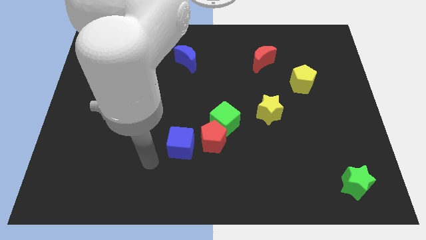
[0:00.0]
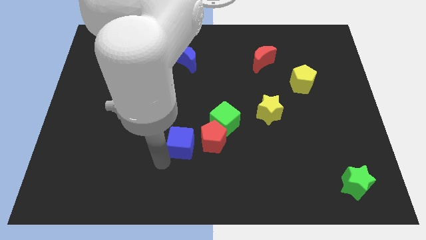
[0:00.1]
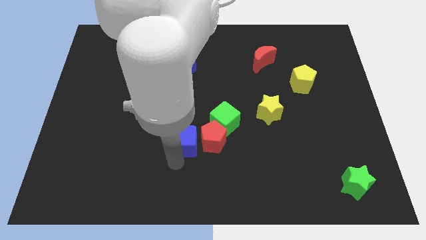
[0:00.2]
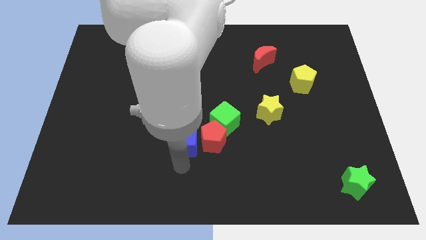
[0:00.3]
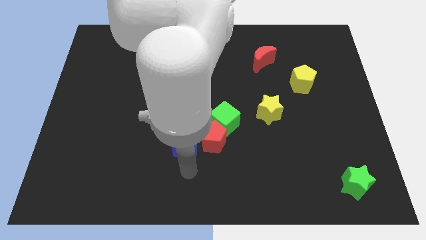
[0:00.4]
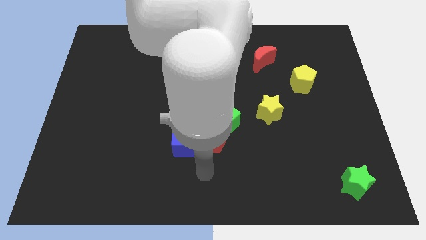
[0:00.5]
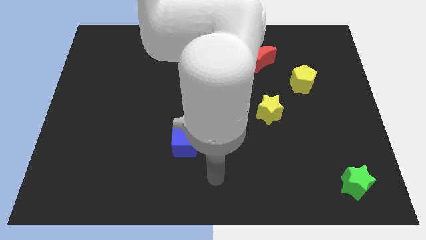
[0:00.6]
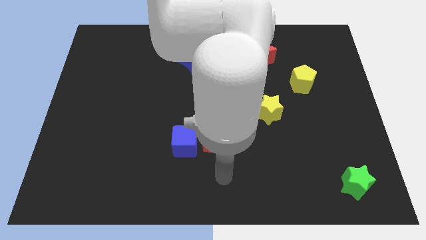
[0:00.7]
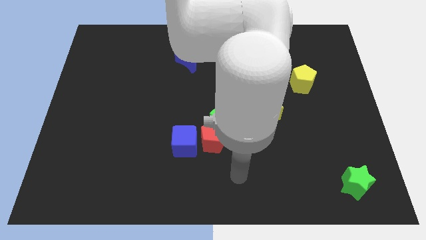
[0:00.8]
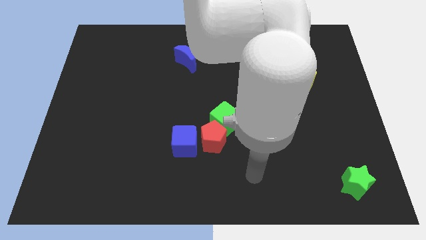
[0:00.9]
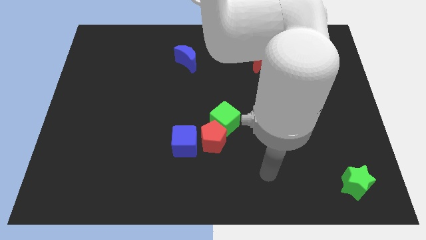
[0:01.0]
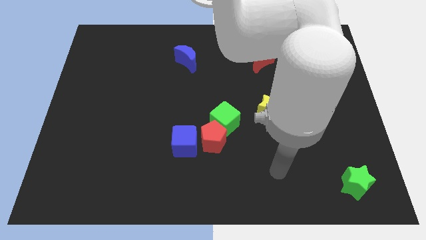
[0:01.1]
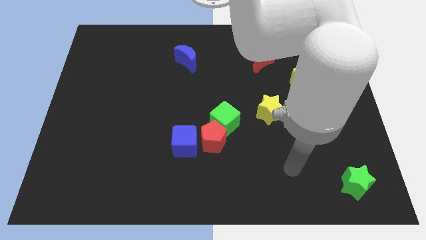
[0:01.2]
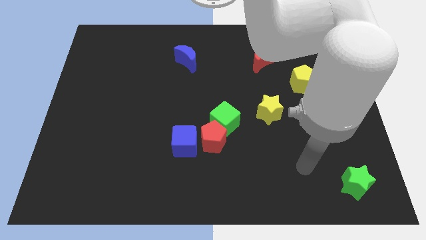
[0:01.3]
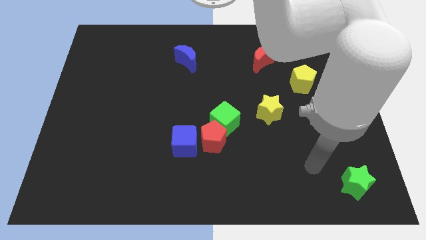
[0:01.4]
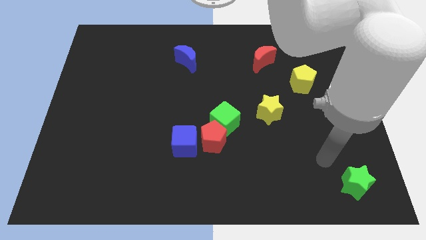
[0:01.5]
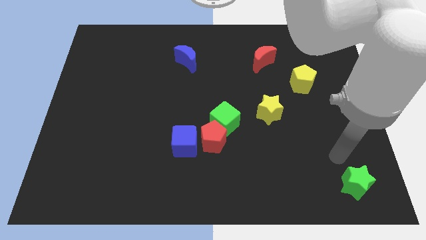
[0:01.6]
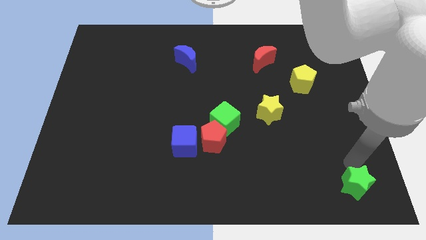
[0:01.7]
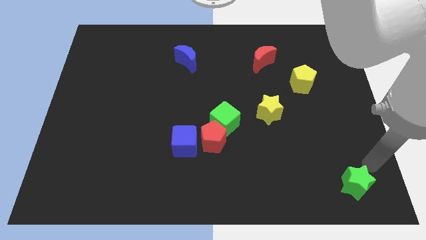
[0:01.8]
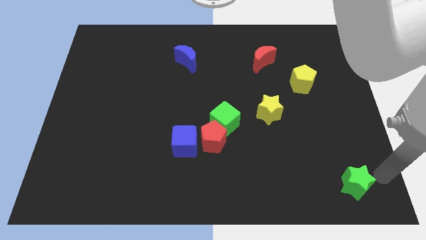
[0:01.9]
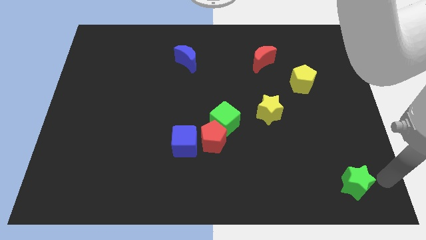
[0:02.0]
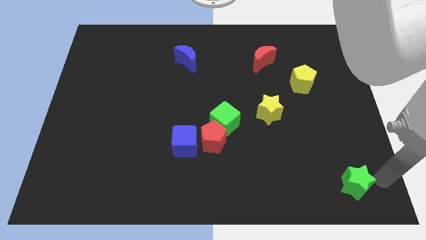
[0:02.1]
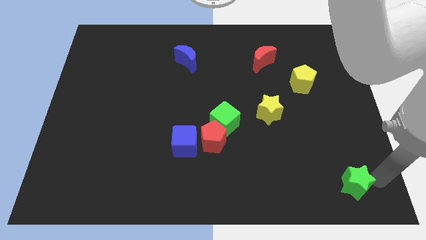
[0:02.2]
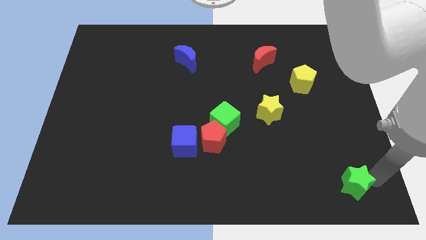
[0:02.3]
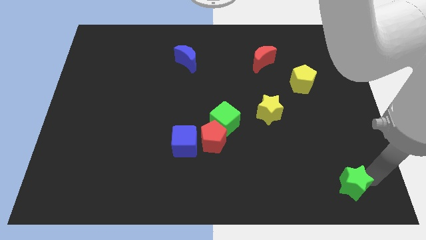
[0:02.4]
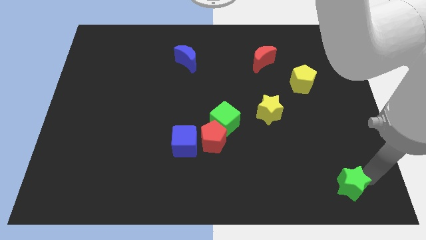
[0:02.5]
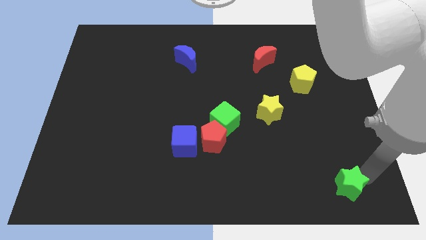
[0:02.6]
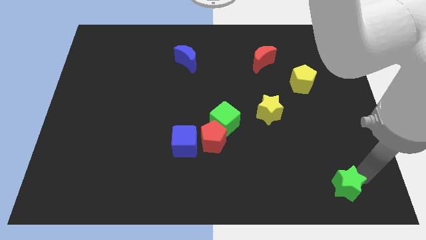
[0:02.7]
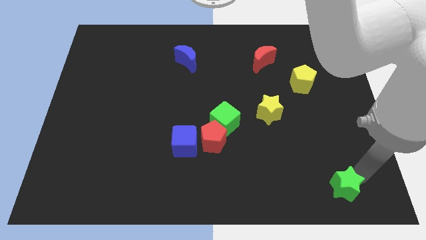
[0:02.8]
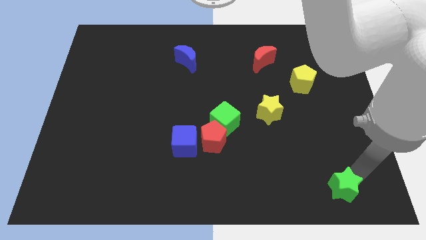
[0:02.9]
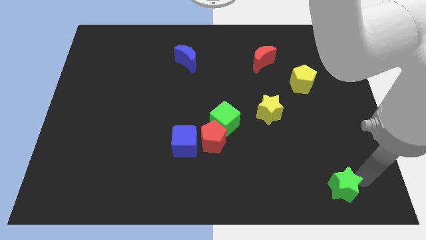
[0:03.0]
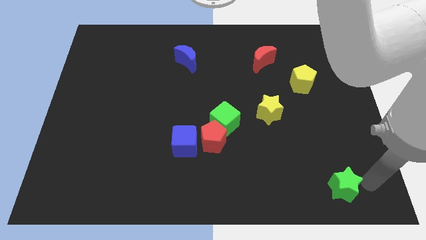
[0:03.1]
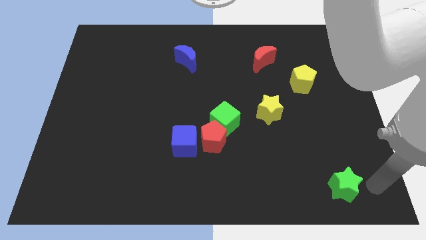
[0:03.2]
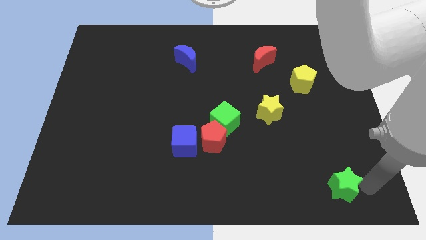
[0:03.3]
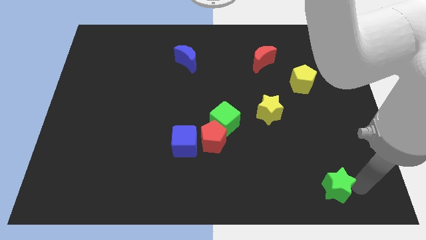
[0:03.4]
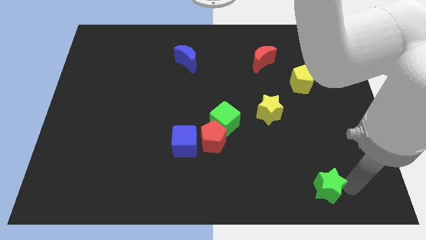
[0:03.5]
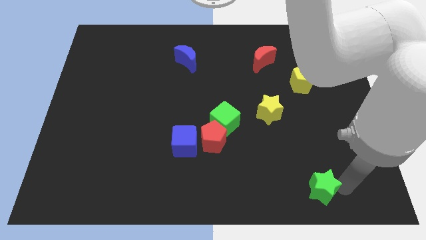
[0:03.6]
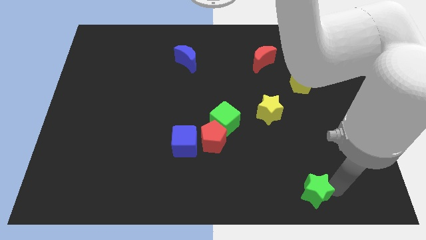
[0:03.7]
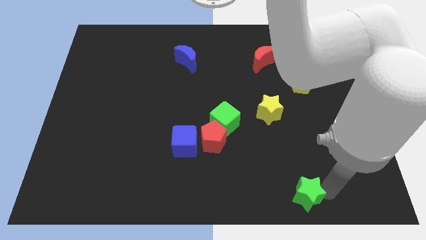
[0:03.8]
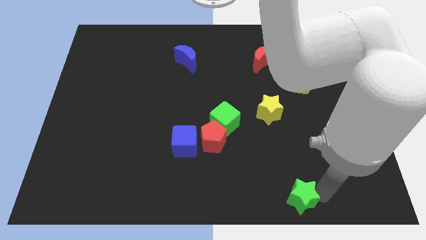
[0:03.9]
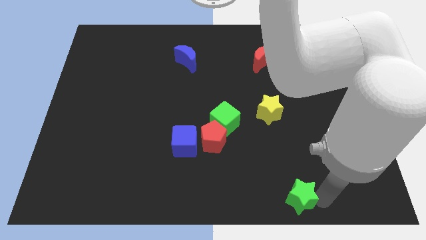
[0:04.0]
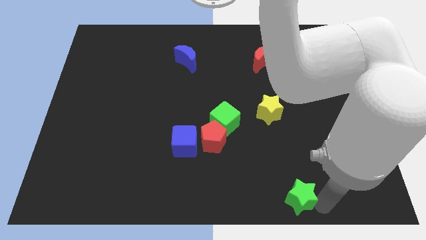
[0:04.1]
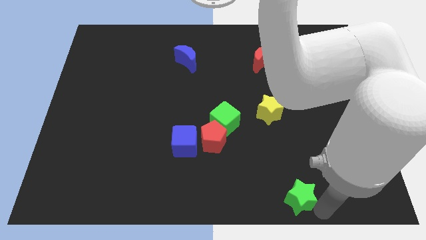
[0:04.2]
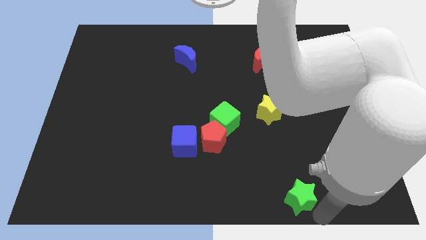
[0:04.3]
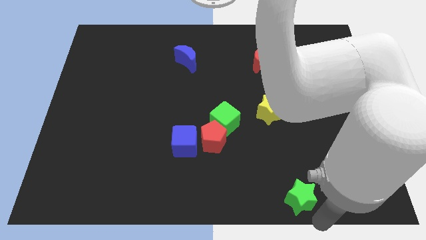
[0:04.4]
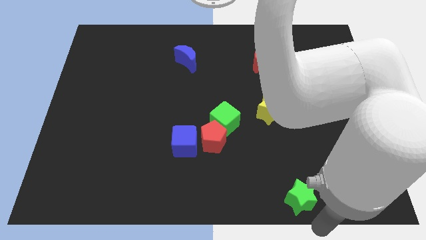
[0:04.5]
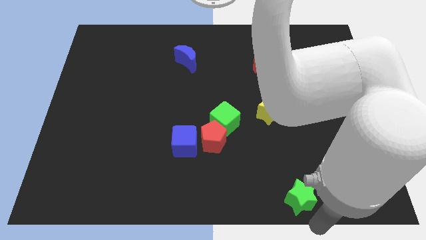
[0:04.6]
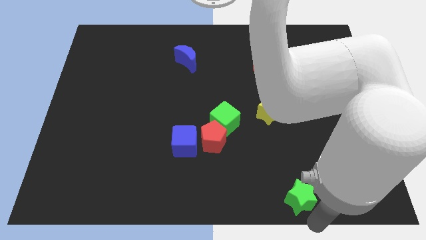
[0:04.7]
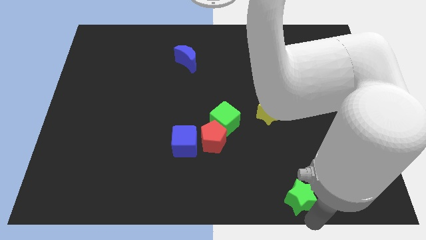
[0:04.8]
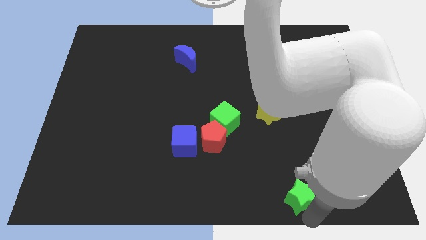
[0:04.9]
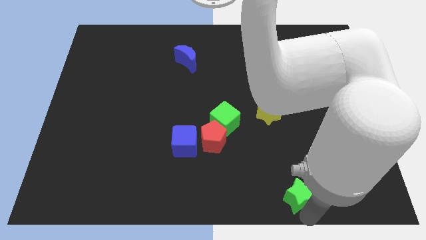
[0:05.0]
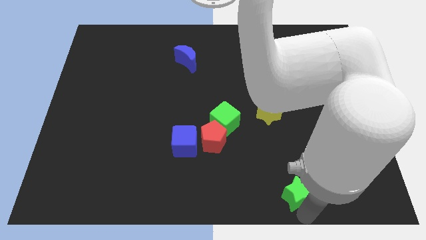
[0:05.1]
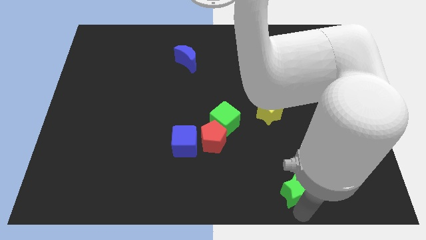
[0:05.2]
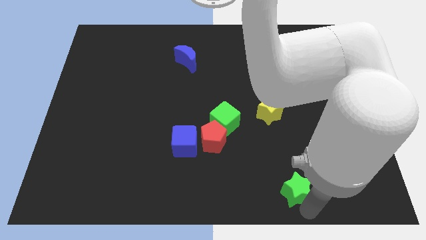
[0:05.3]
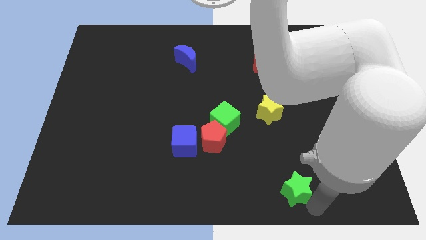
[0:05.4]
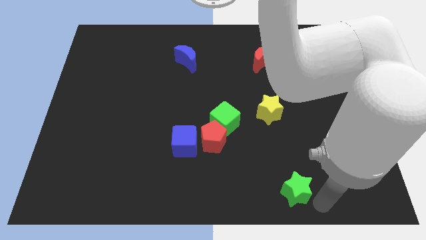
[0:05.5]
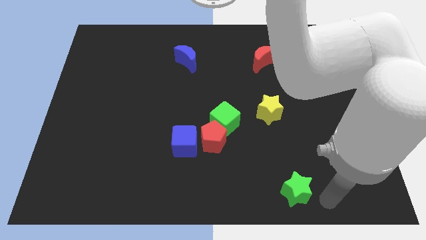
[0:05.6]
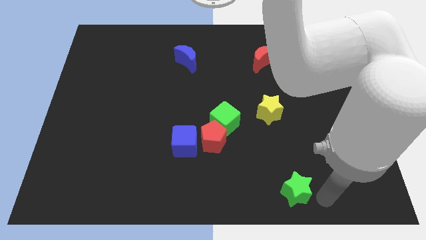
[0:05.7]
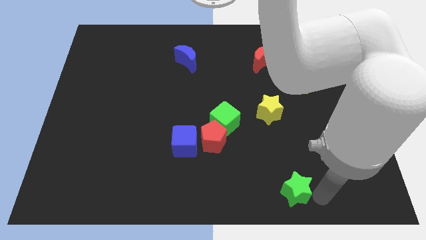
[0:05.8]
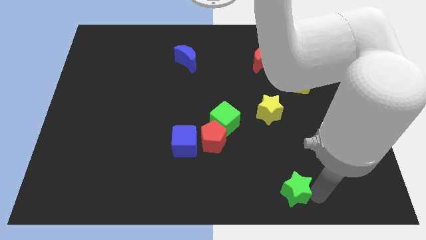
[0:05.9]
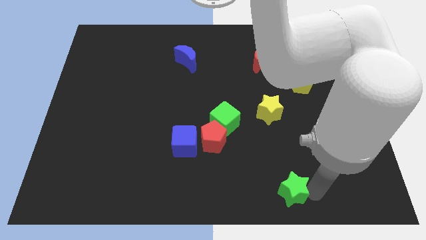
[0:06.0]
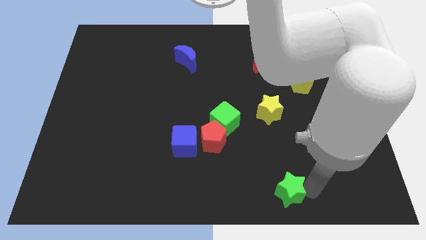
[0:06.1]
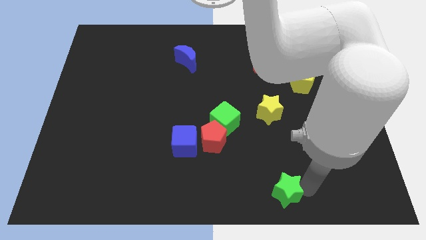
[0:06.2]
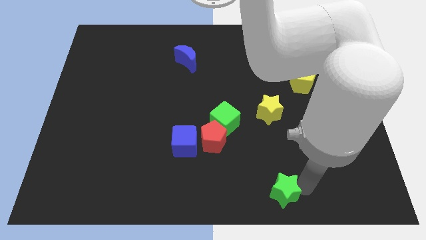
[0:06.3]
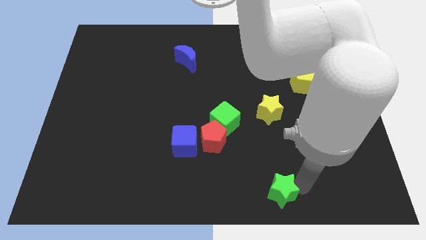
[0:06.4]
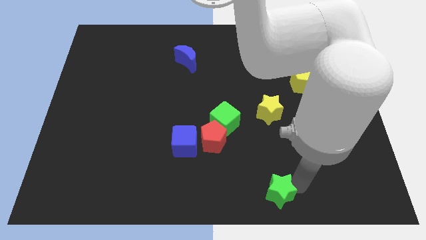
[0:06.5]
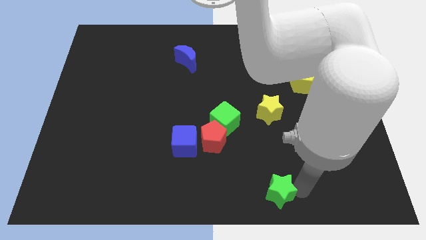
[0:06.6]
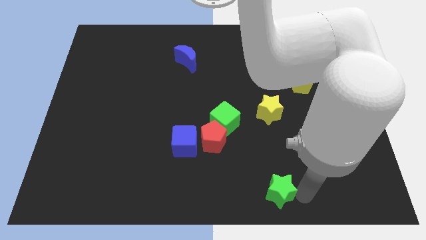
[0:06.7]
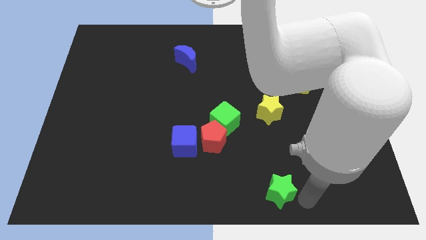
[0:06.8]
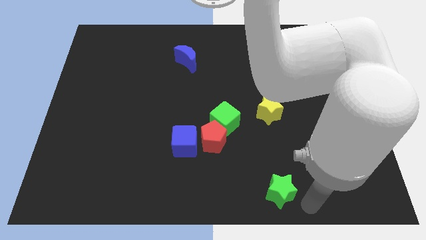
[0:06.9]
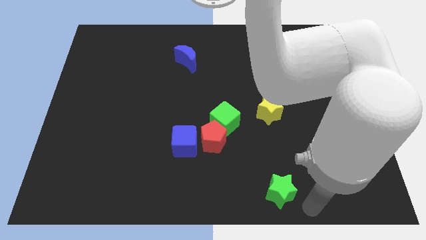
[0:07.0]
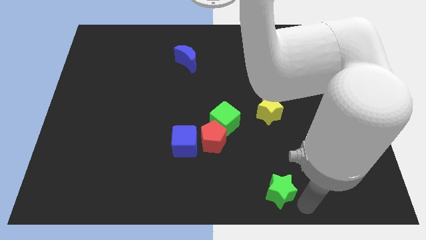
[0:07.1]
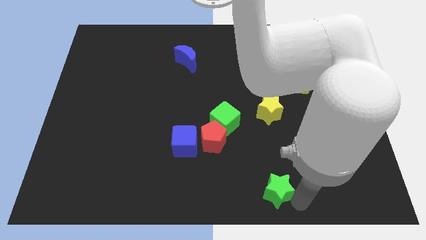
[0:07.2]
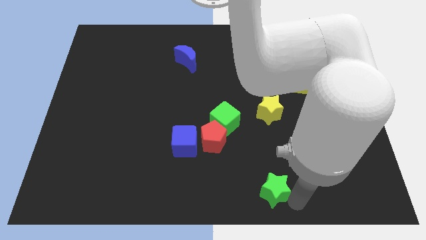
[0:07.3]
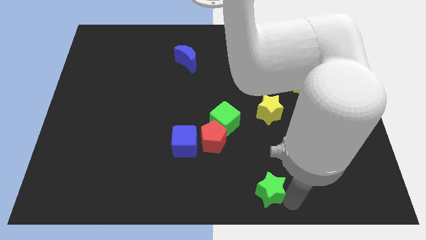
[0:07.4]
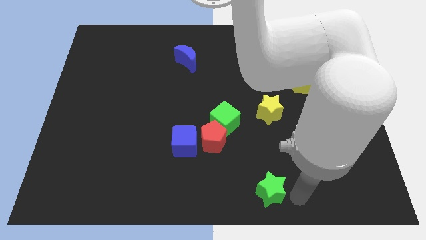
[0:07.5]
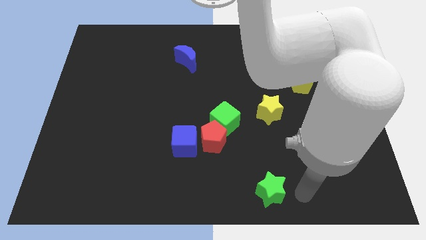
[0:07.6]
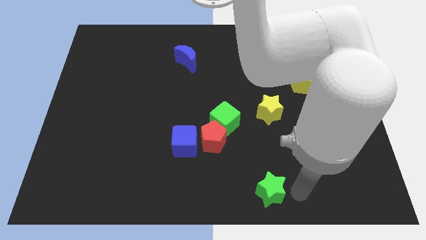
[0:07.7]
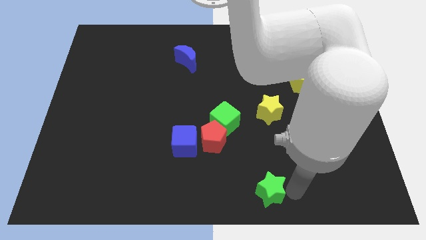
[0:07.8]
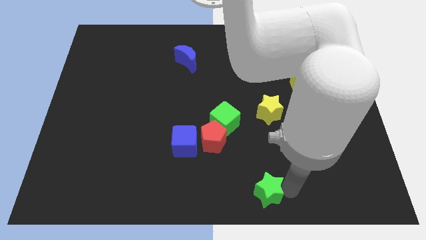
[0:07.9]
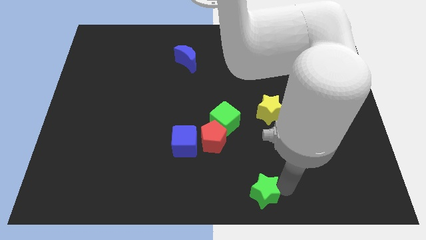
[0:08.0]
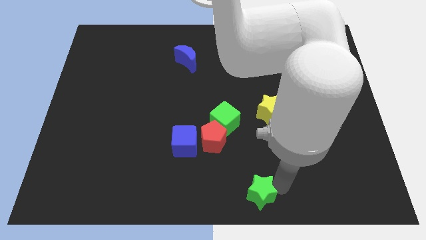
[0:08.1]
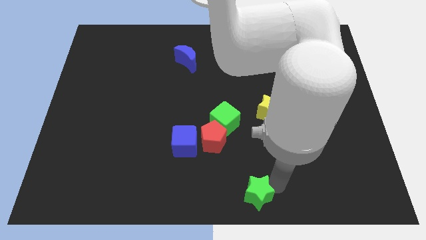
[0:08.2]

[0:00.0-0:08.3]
slide the green star left
